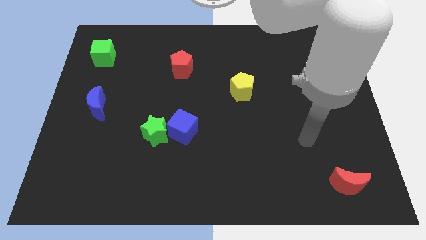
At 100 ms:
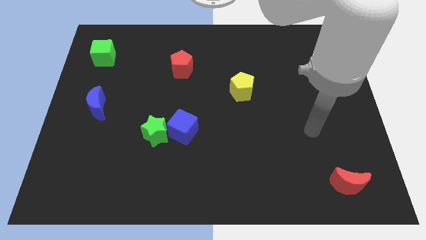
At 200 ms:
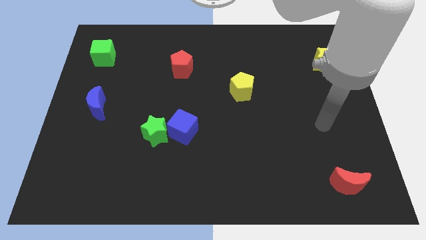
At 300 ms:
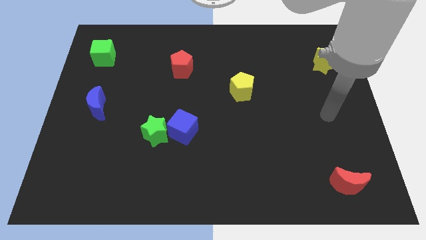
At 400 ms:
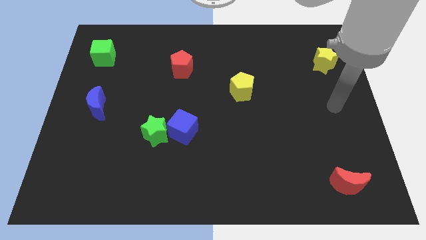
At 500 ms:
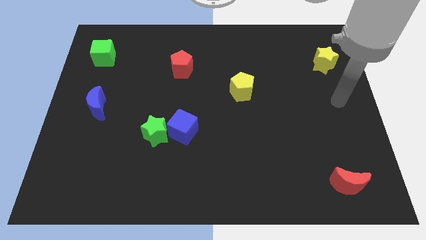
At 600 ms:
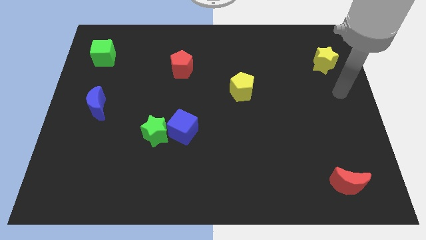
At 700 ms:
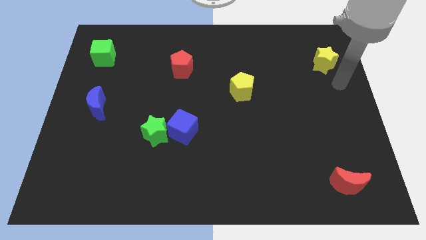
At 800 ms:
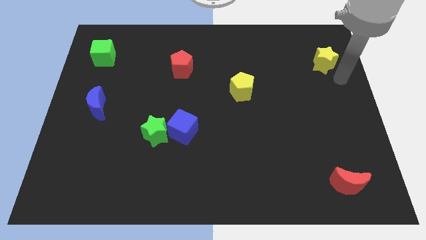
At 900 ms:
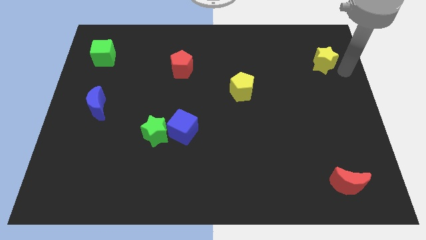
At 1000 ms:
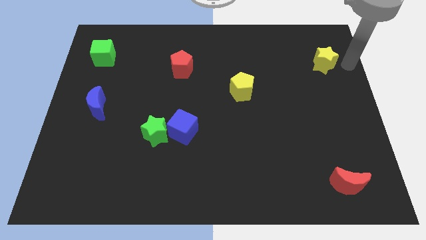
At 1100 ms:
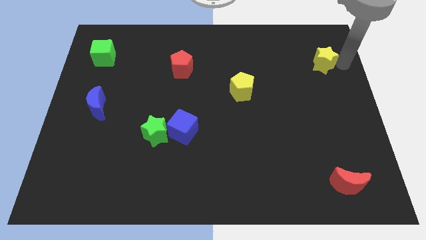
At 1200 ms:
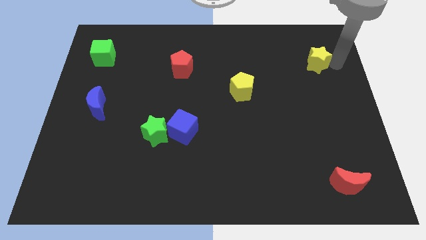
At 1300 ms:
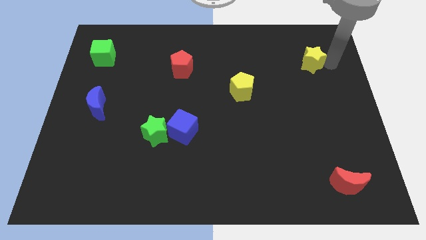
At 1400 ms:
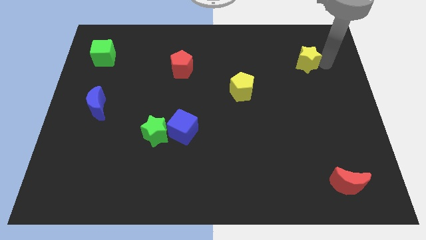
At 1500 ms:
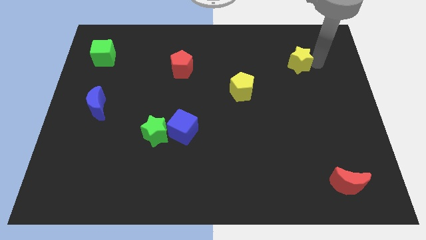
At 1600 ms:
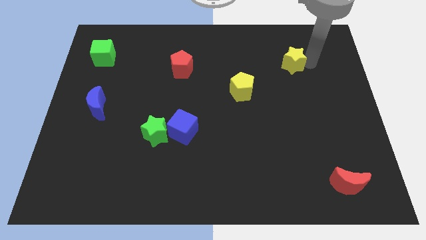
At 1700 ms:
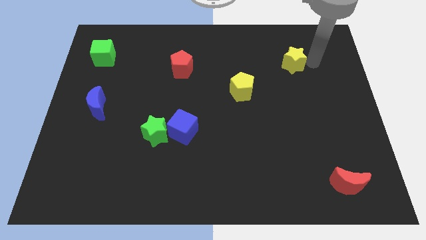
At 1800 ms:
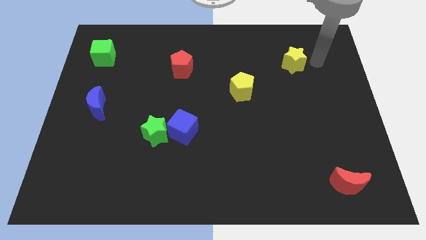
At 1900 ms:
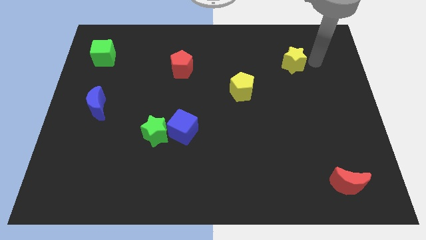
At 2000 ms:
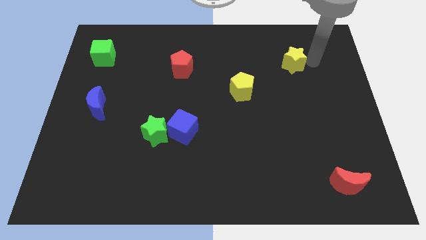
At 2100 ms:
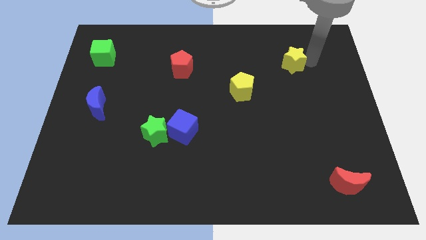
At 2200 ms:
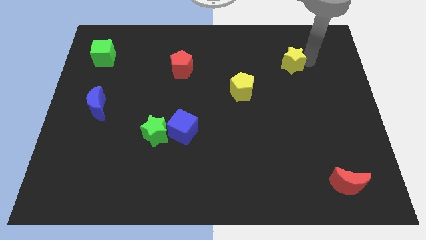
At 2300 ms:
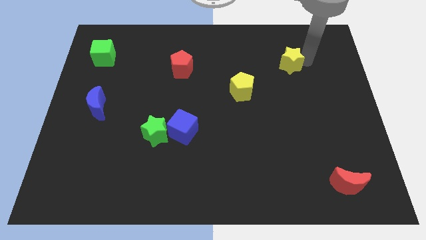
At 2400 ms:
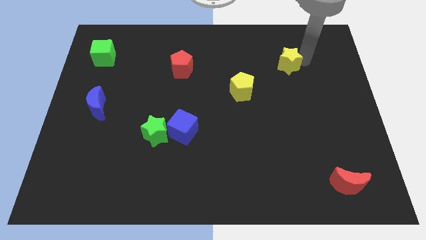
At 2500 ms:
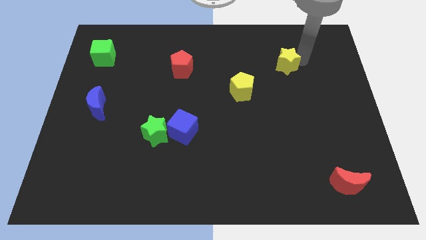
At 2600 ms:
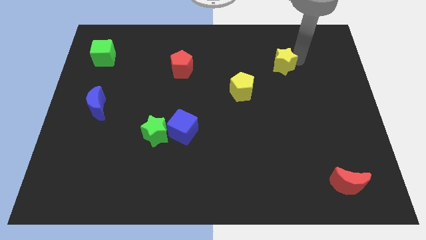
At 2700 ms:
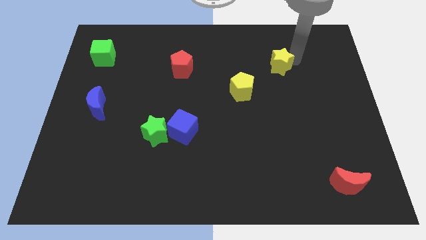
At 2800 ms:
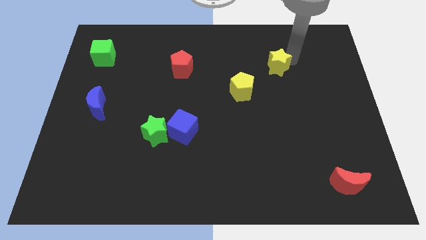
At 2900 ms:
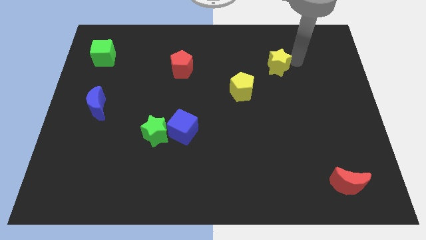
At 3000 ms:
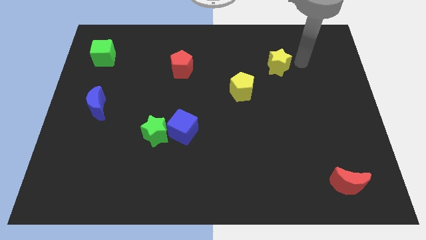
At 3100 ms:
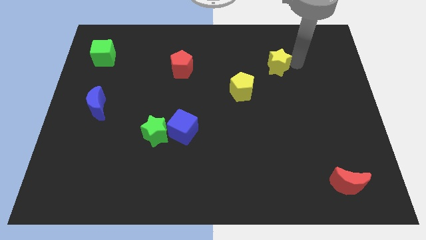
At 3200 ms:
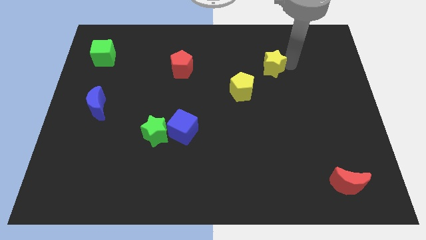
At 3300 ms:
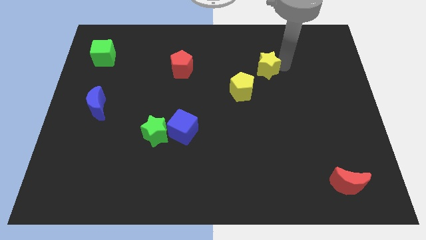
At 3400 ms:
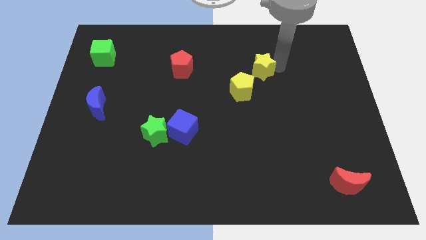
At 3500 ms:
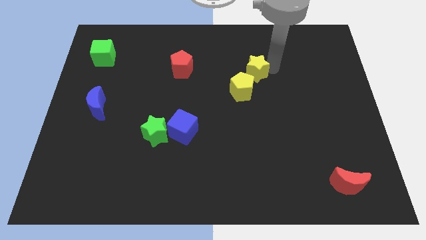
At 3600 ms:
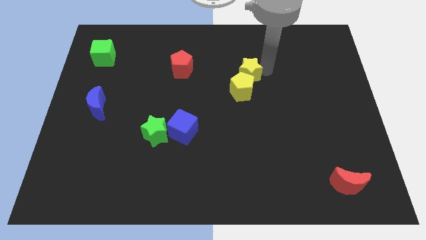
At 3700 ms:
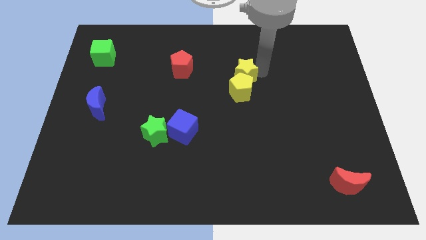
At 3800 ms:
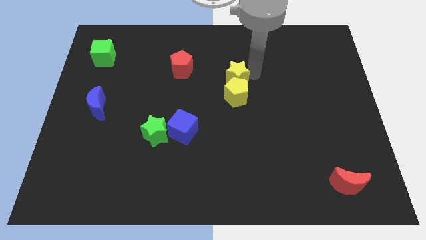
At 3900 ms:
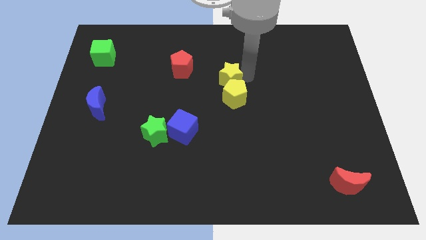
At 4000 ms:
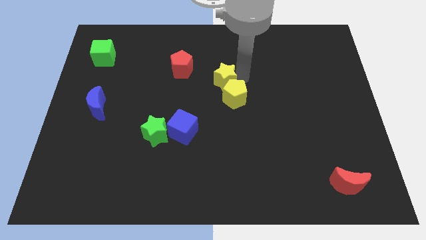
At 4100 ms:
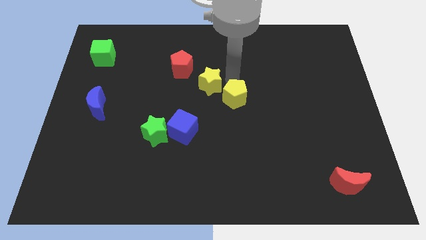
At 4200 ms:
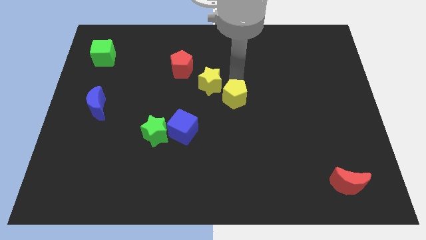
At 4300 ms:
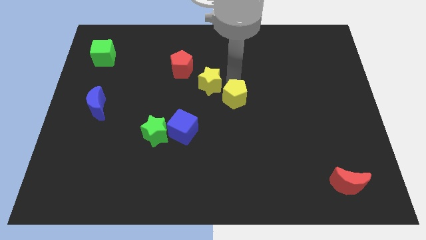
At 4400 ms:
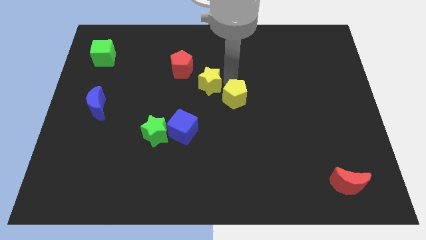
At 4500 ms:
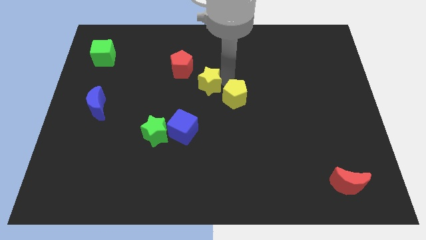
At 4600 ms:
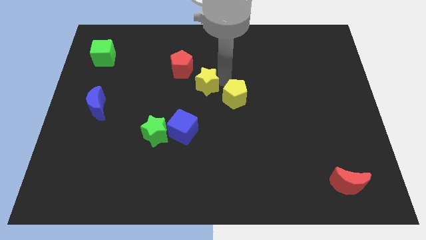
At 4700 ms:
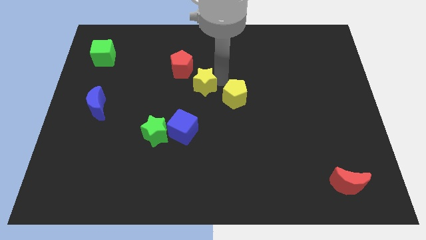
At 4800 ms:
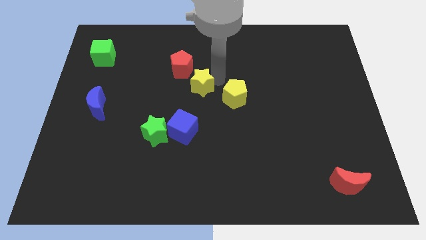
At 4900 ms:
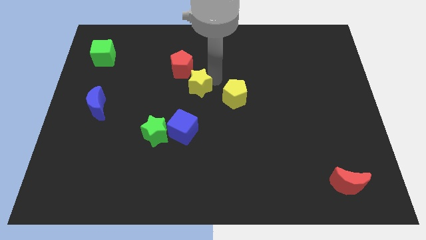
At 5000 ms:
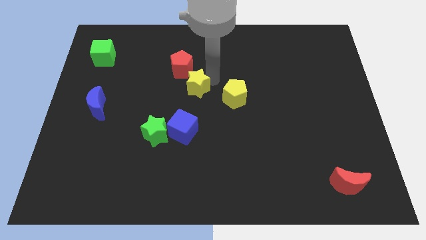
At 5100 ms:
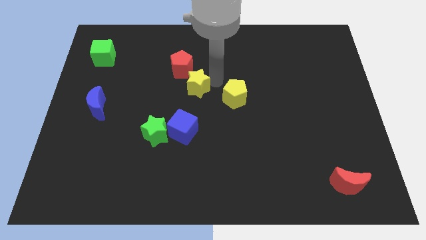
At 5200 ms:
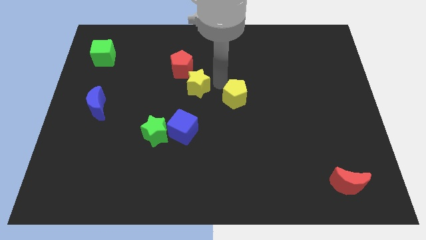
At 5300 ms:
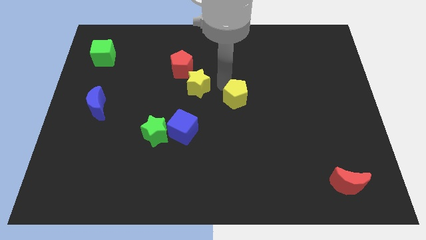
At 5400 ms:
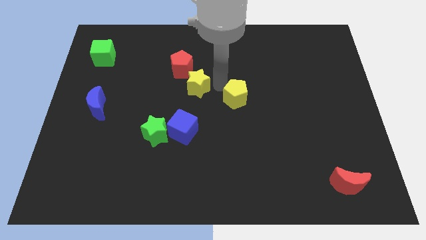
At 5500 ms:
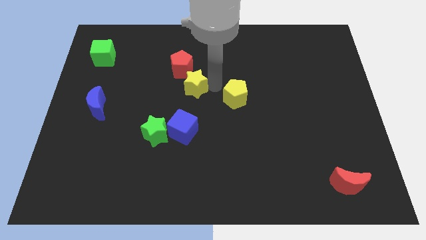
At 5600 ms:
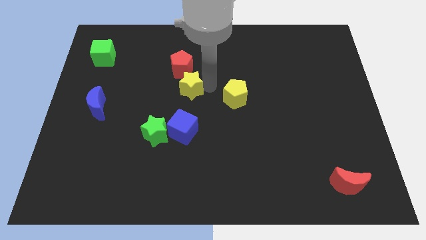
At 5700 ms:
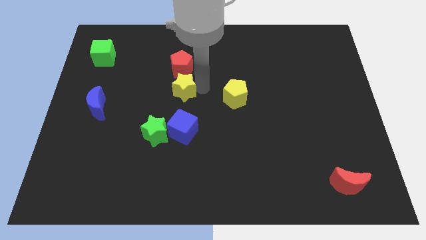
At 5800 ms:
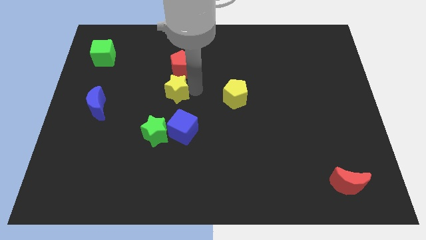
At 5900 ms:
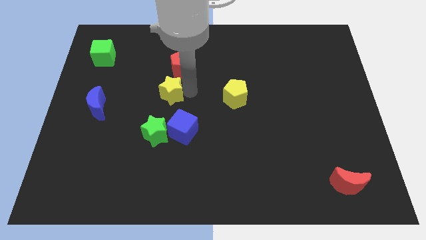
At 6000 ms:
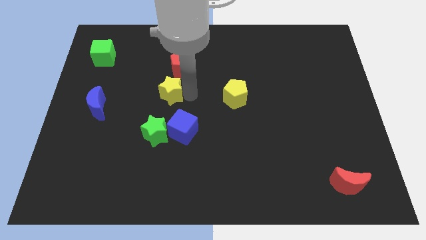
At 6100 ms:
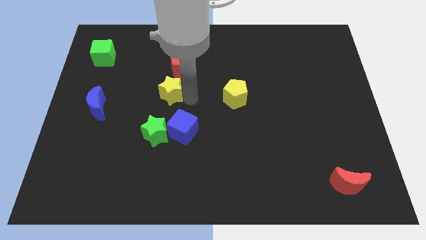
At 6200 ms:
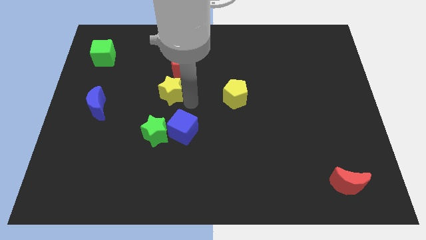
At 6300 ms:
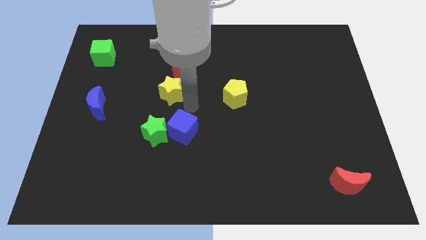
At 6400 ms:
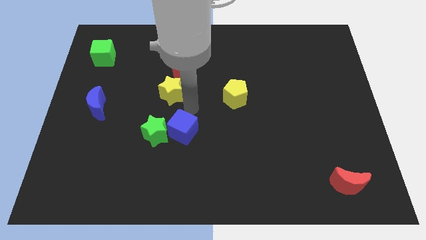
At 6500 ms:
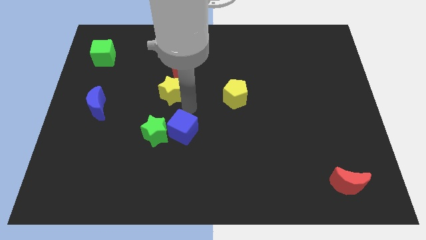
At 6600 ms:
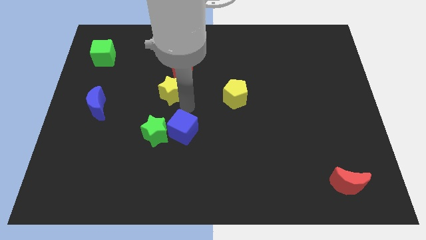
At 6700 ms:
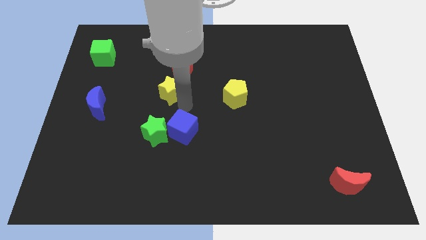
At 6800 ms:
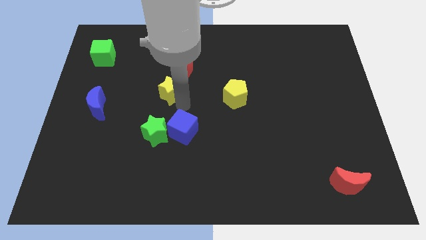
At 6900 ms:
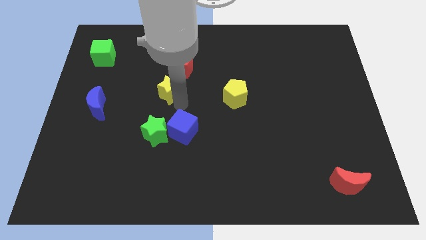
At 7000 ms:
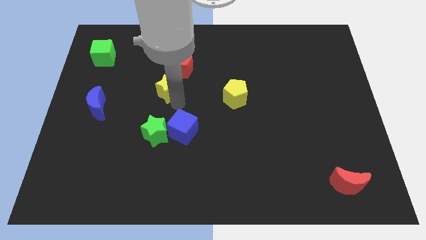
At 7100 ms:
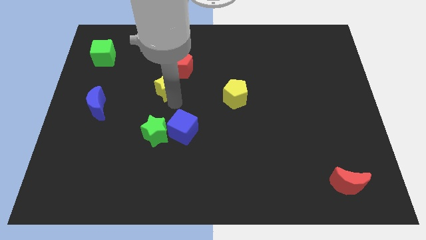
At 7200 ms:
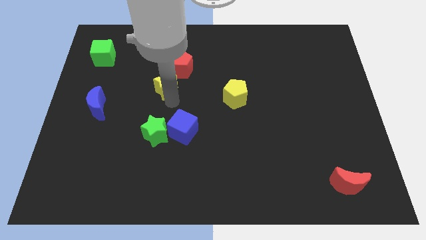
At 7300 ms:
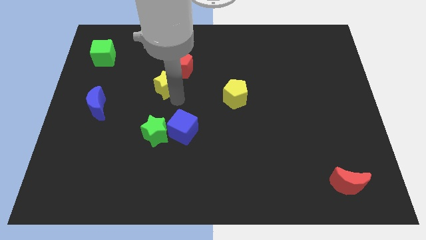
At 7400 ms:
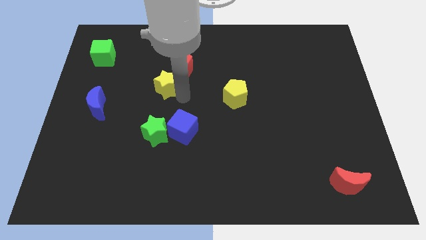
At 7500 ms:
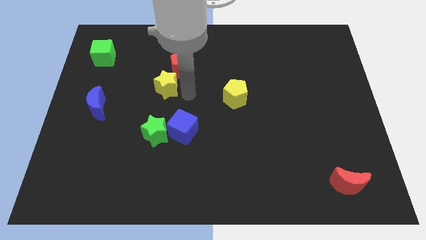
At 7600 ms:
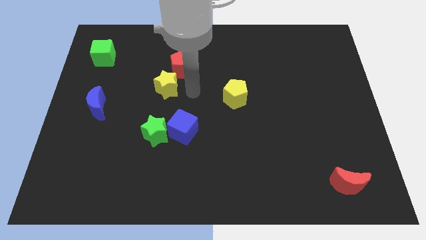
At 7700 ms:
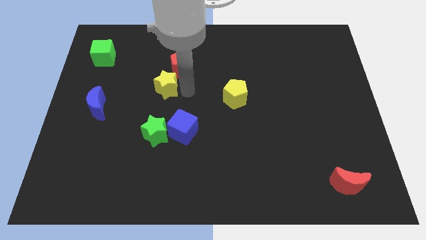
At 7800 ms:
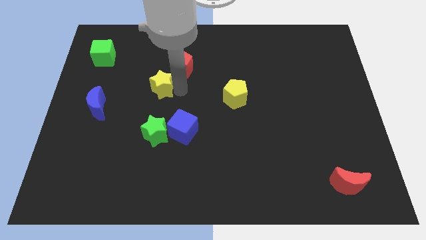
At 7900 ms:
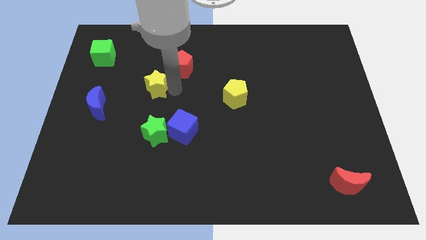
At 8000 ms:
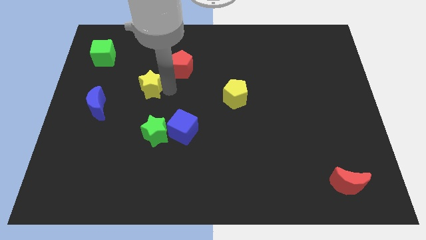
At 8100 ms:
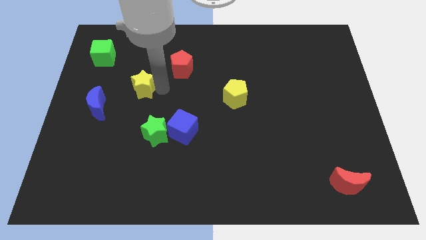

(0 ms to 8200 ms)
move the yellow star diagonally up and to the right of the blue moon
